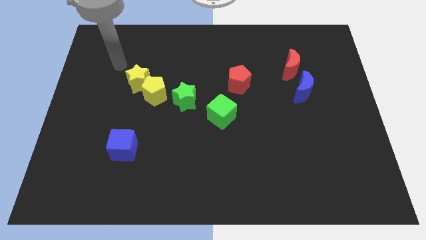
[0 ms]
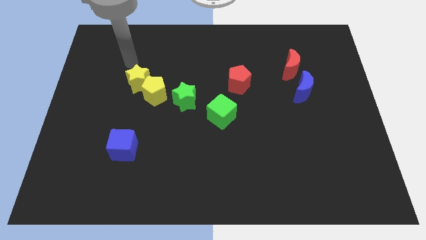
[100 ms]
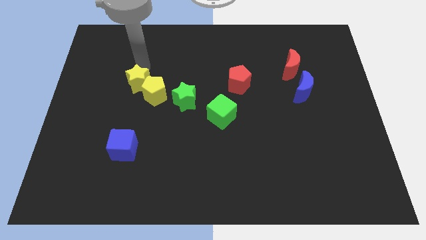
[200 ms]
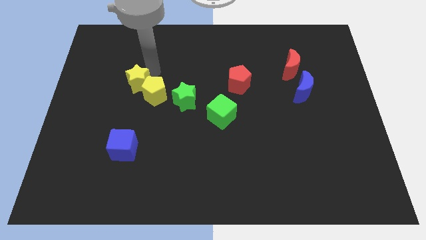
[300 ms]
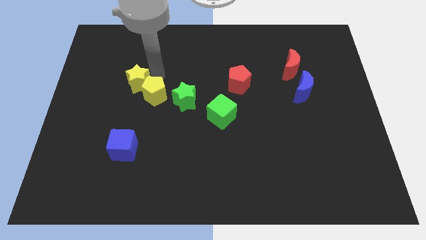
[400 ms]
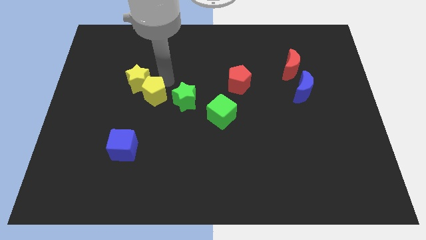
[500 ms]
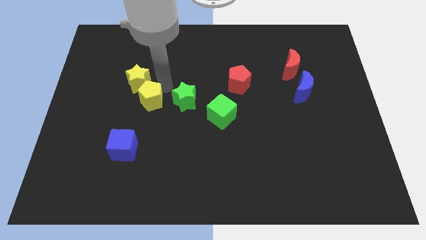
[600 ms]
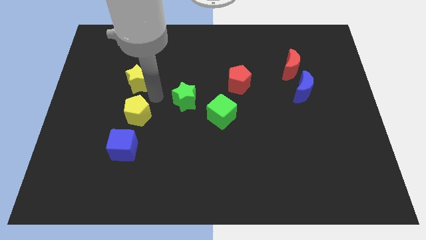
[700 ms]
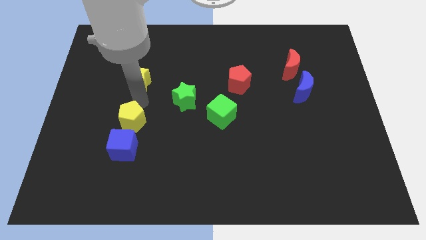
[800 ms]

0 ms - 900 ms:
pull the yellow star apart from the yellow pentagon

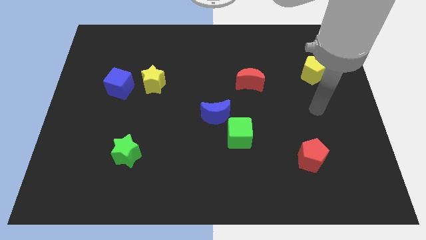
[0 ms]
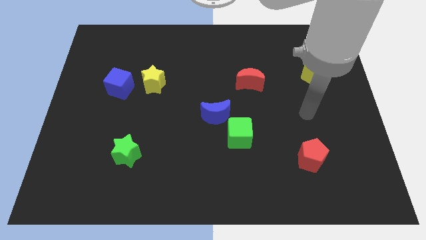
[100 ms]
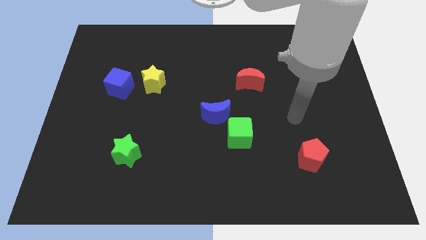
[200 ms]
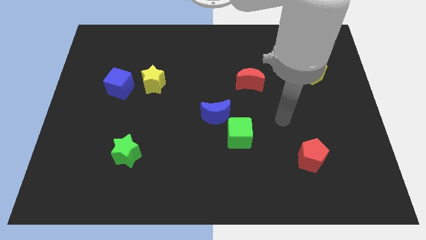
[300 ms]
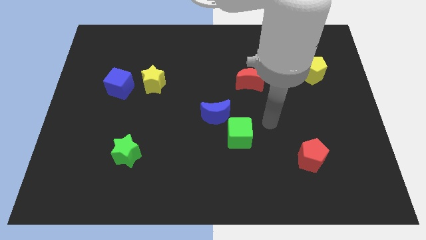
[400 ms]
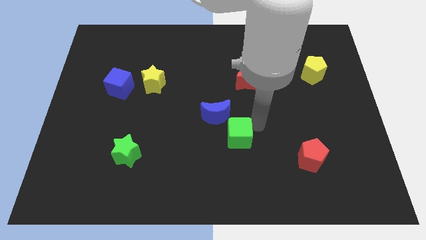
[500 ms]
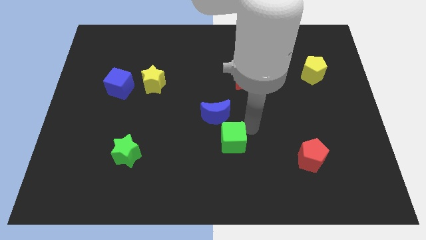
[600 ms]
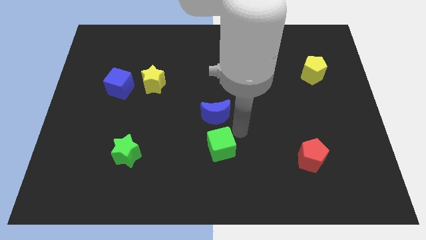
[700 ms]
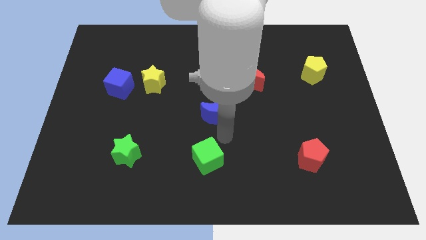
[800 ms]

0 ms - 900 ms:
separate the blue moon from the green cube

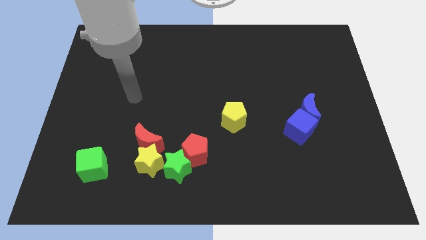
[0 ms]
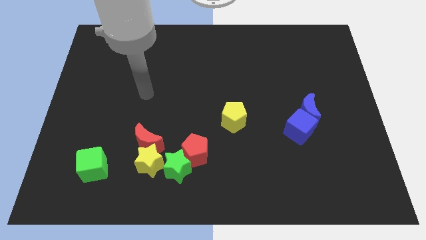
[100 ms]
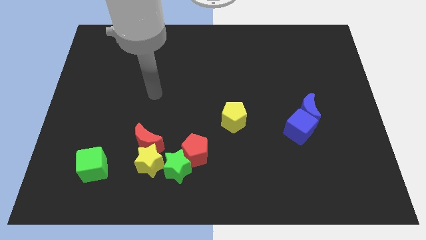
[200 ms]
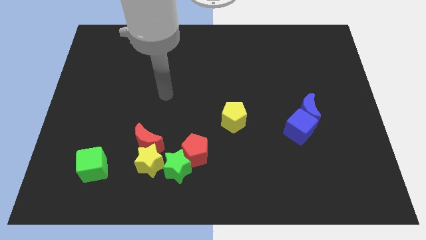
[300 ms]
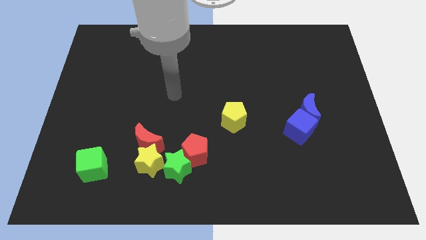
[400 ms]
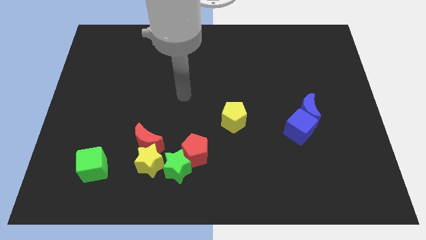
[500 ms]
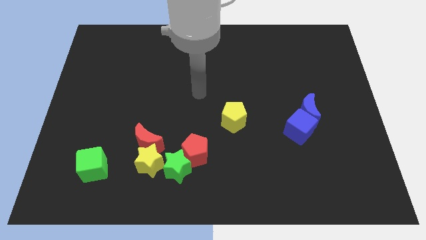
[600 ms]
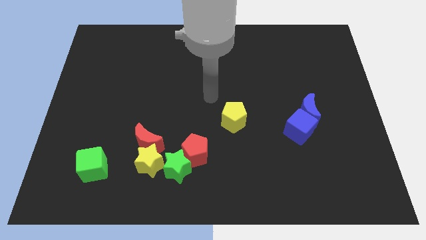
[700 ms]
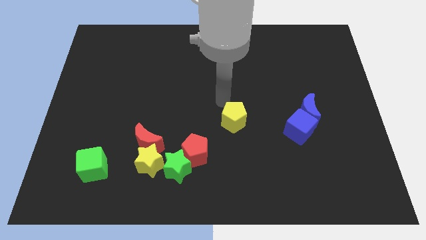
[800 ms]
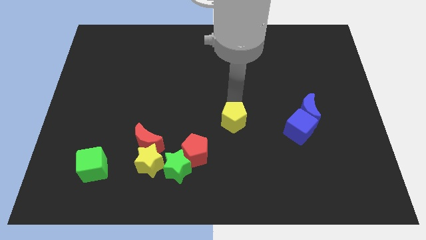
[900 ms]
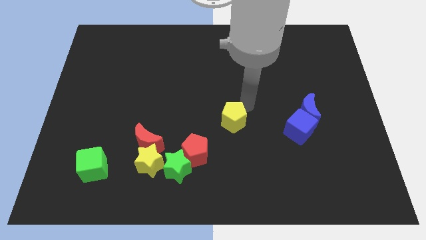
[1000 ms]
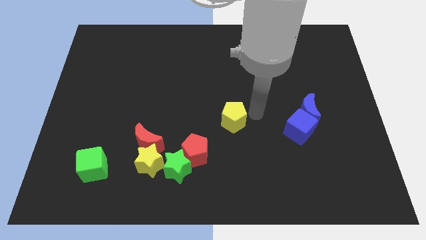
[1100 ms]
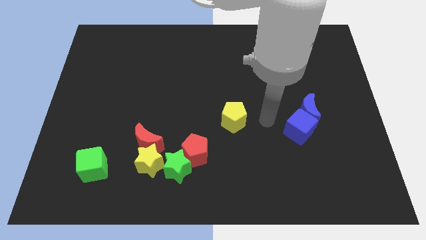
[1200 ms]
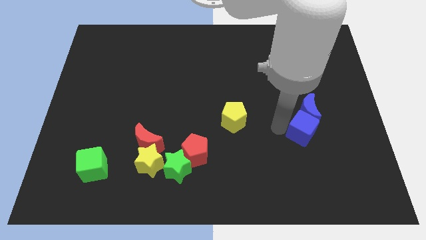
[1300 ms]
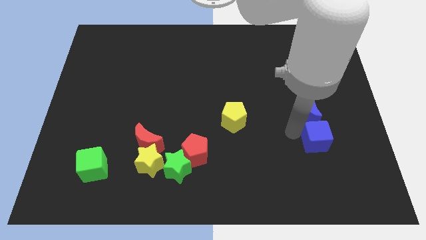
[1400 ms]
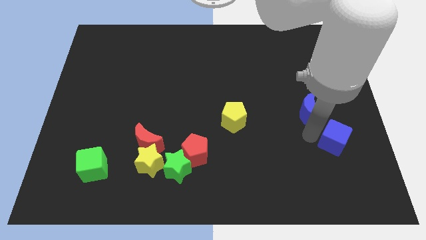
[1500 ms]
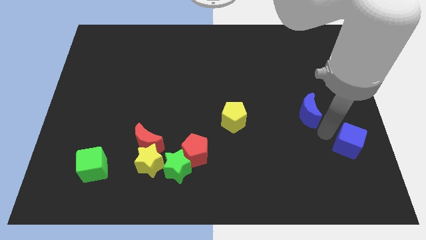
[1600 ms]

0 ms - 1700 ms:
move the blue moon away from the blue cube

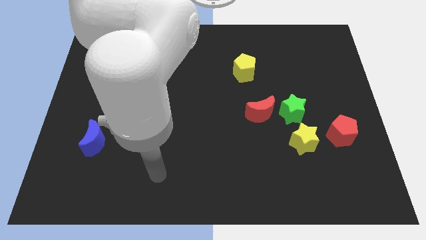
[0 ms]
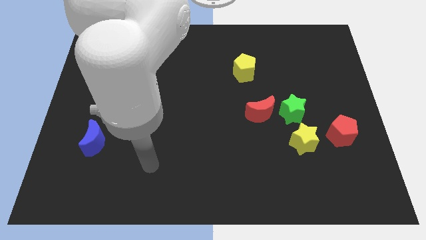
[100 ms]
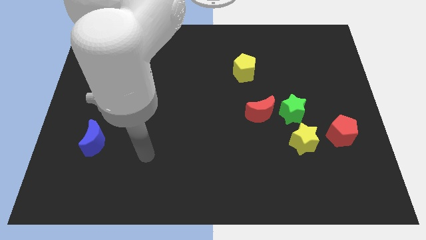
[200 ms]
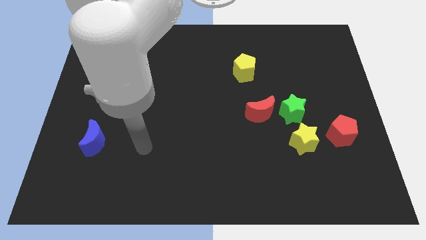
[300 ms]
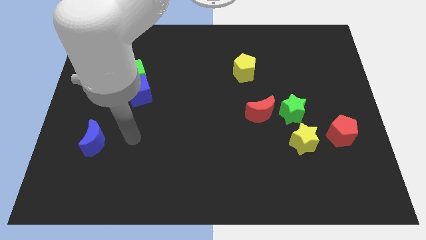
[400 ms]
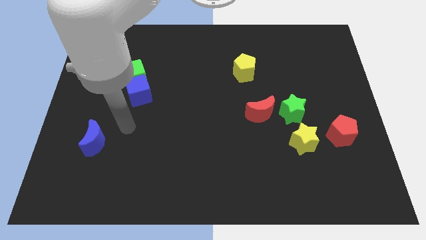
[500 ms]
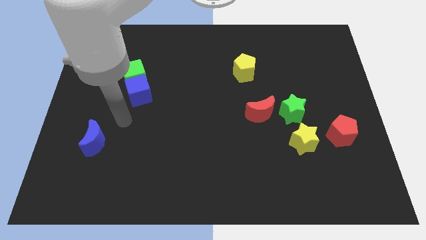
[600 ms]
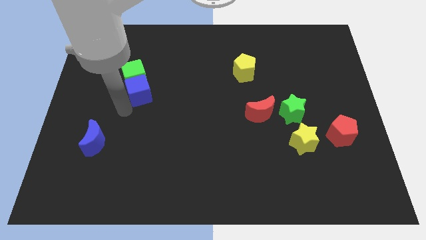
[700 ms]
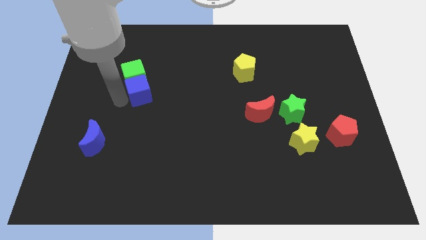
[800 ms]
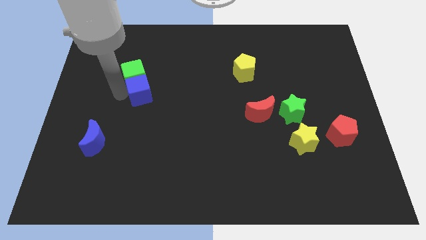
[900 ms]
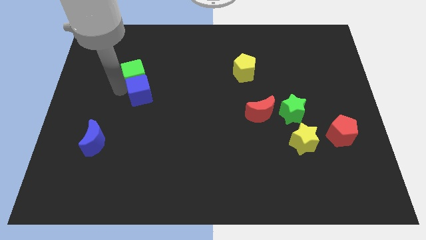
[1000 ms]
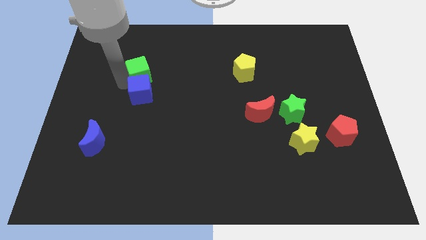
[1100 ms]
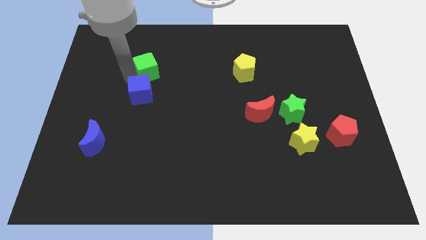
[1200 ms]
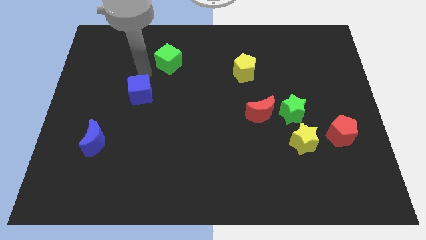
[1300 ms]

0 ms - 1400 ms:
pull the blue cube apart from the green cube

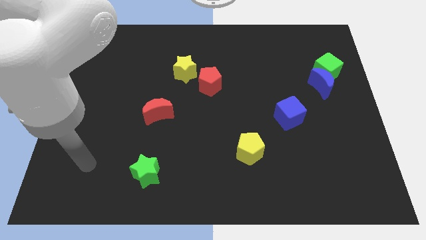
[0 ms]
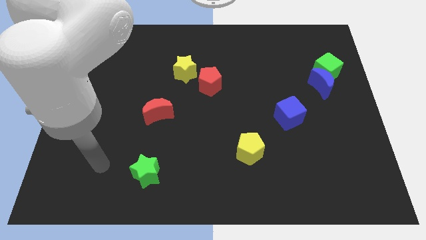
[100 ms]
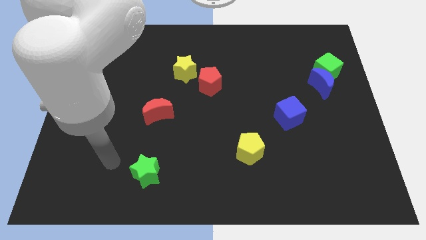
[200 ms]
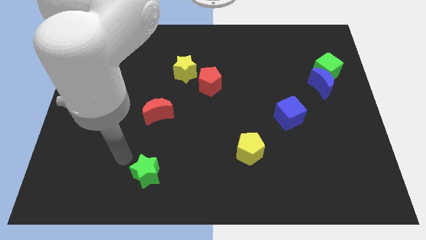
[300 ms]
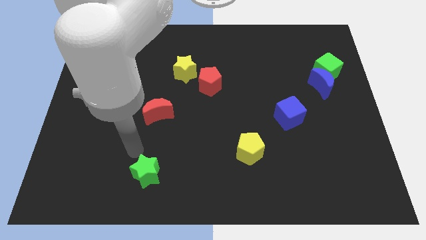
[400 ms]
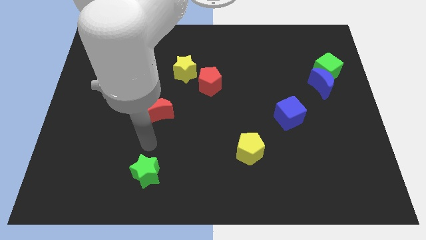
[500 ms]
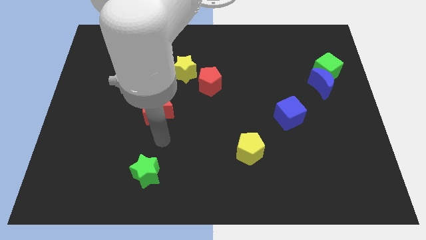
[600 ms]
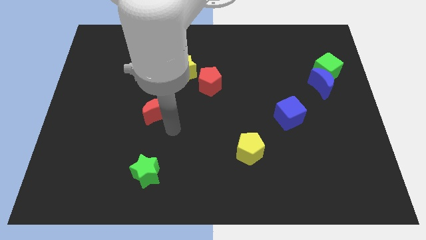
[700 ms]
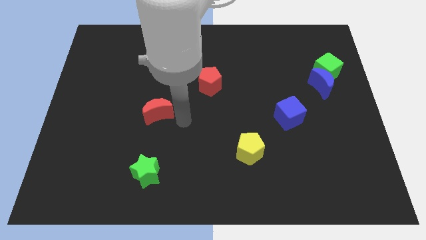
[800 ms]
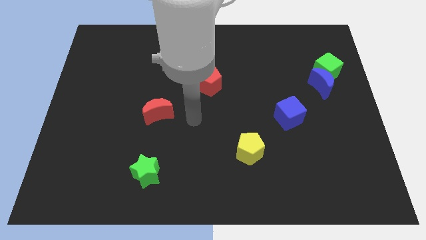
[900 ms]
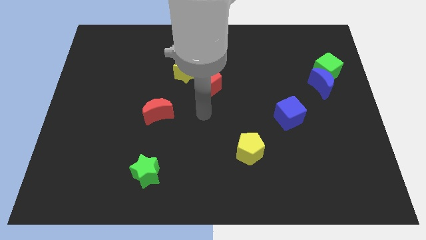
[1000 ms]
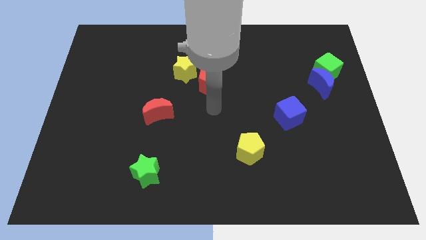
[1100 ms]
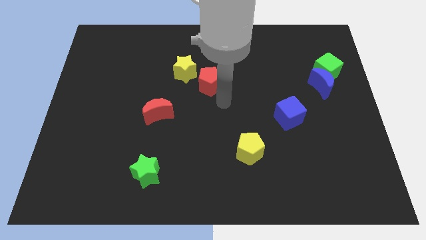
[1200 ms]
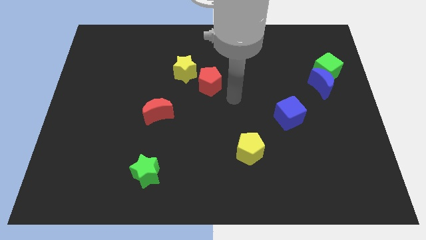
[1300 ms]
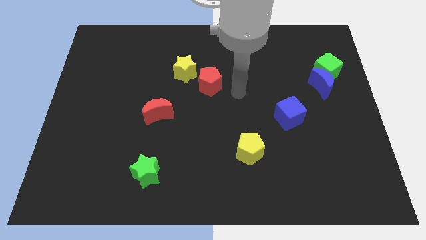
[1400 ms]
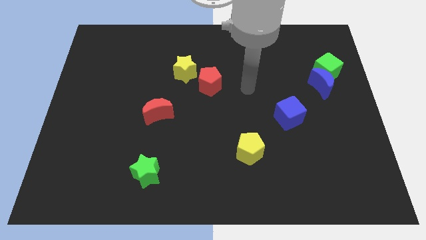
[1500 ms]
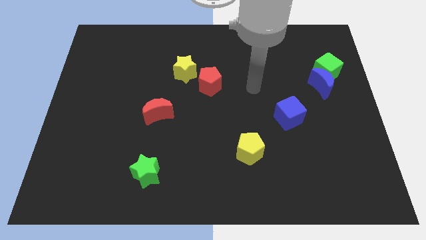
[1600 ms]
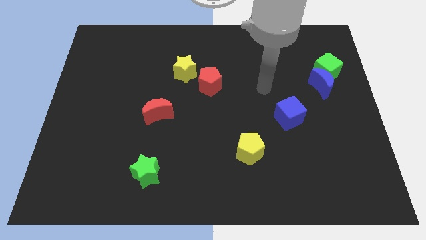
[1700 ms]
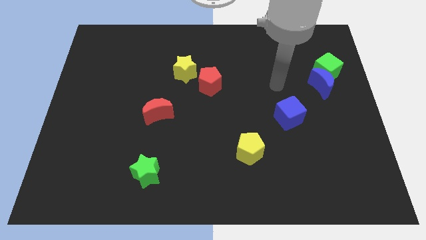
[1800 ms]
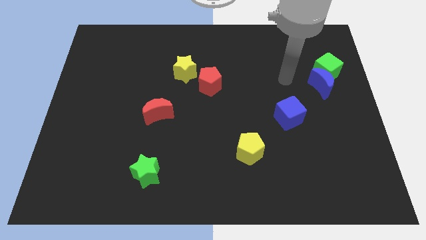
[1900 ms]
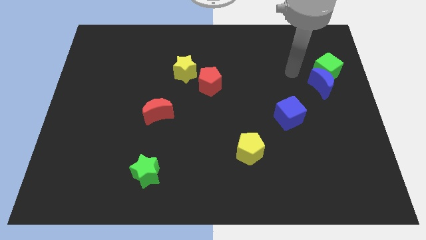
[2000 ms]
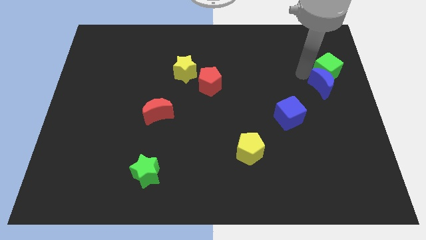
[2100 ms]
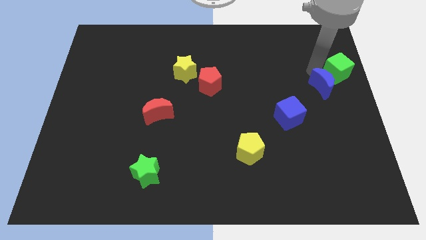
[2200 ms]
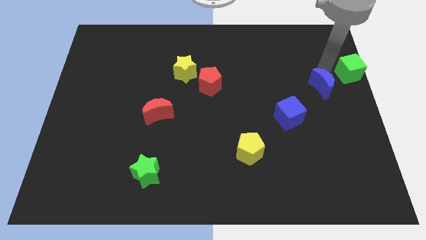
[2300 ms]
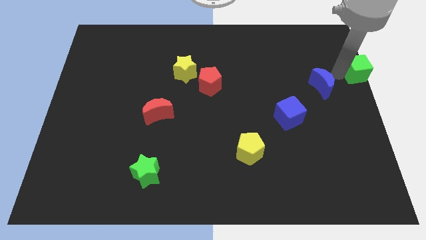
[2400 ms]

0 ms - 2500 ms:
pull the blue moon apart from the green cube

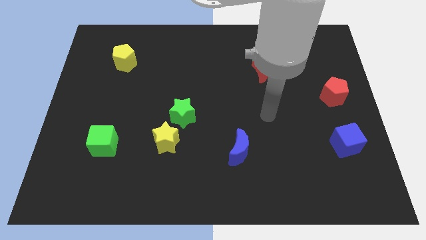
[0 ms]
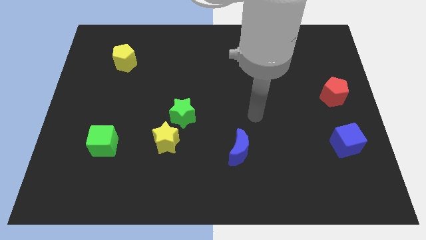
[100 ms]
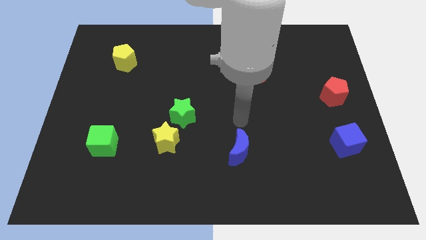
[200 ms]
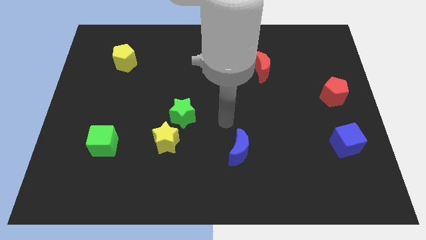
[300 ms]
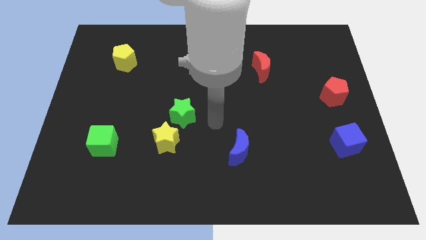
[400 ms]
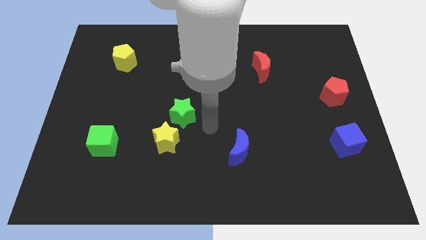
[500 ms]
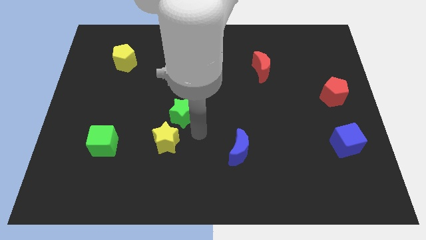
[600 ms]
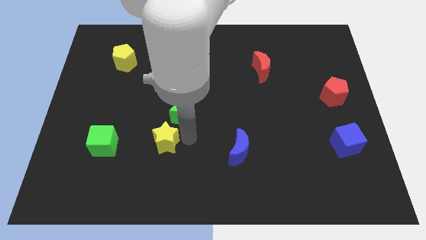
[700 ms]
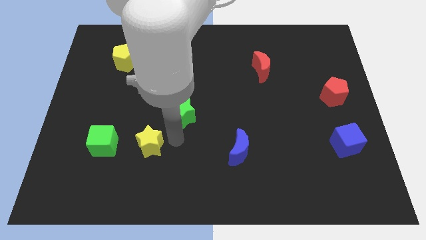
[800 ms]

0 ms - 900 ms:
pull the green star apart from the yellow star

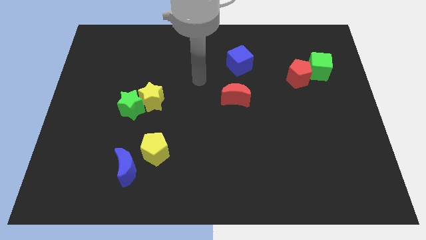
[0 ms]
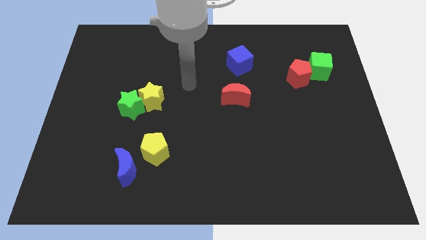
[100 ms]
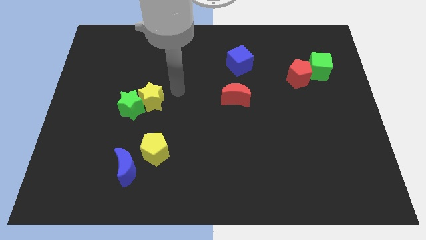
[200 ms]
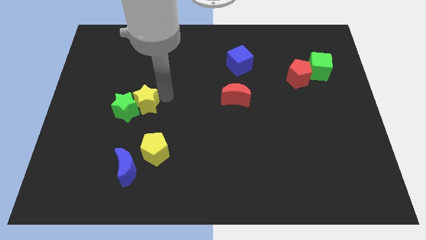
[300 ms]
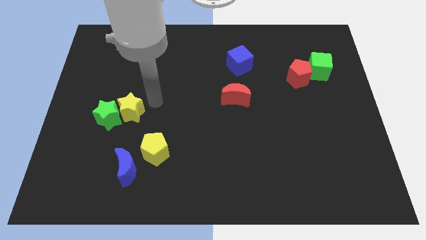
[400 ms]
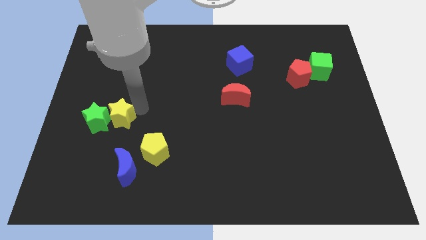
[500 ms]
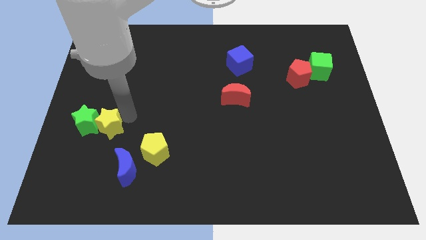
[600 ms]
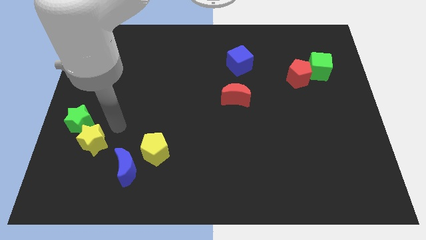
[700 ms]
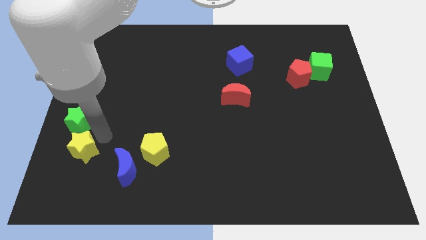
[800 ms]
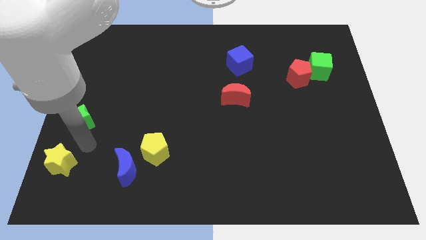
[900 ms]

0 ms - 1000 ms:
separate the green star from the yellow star
